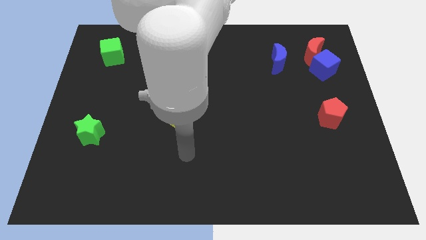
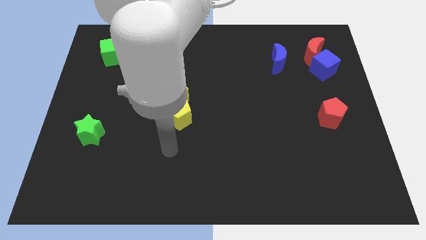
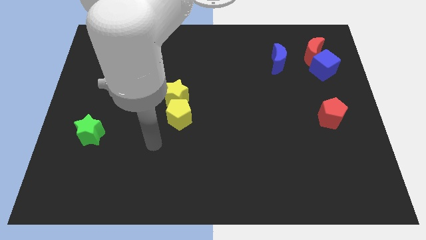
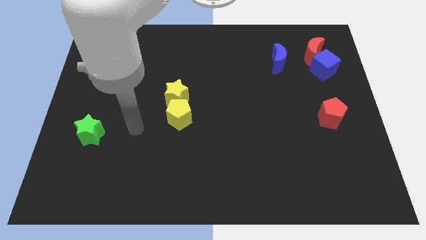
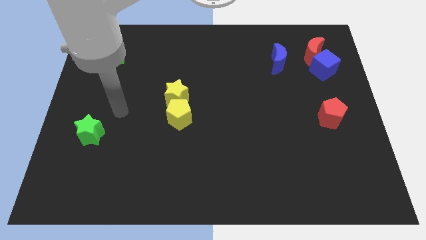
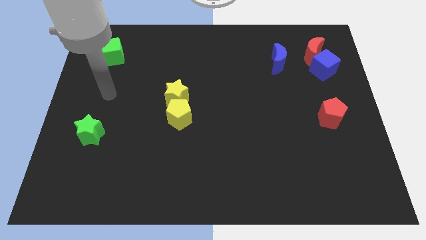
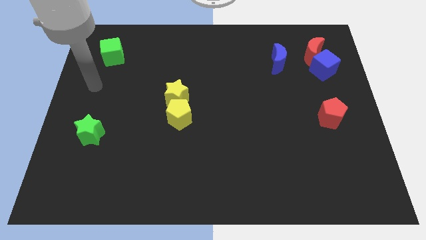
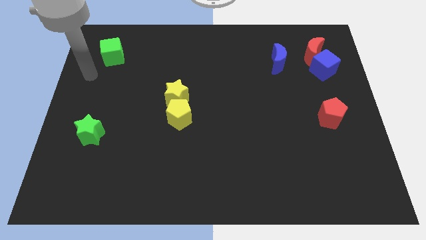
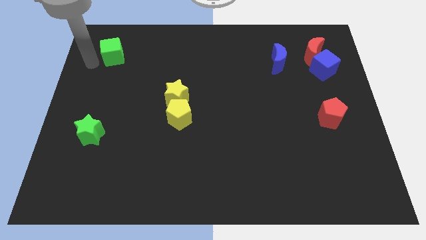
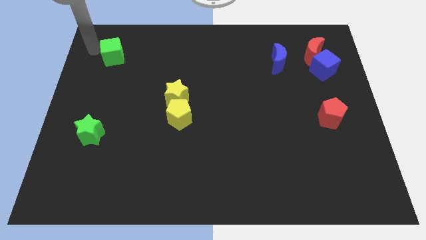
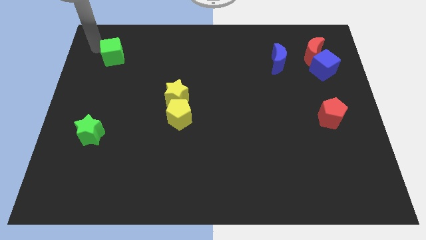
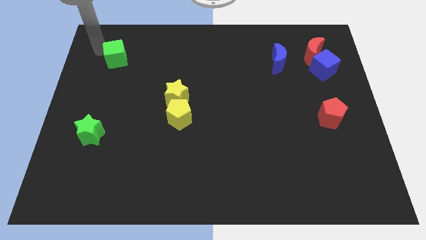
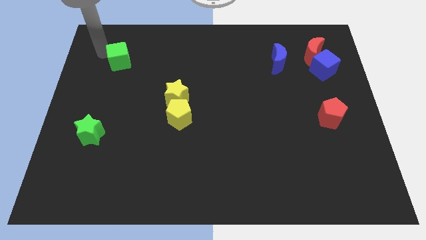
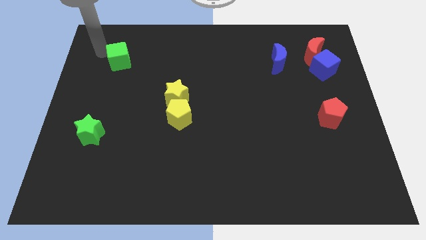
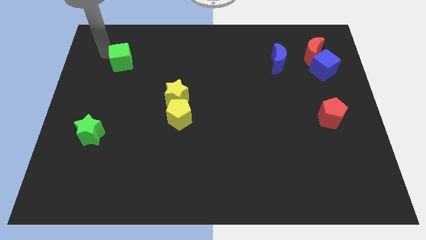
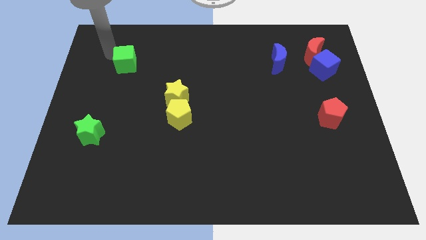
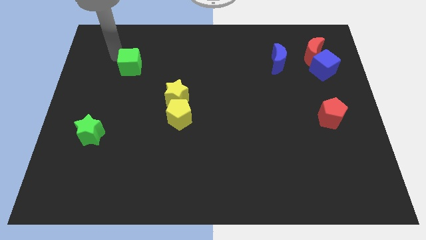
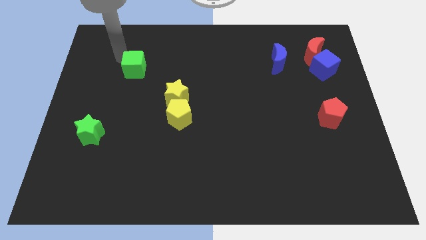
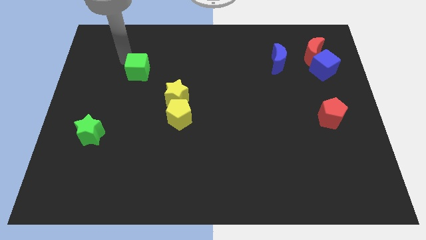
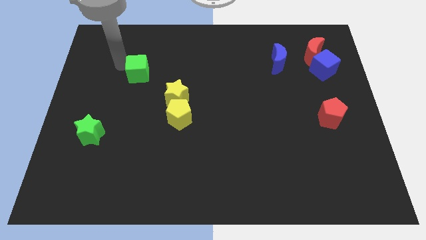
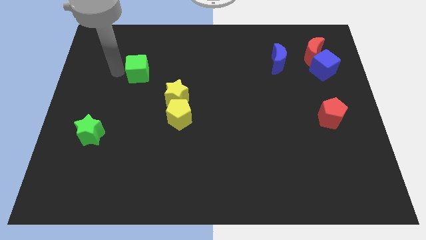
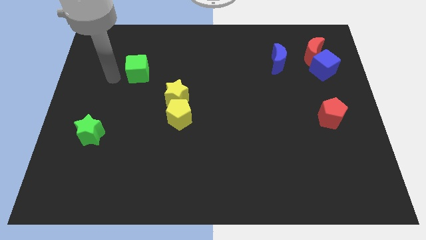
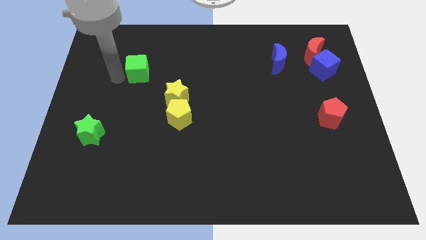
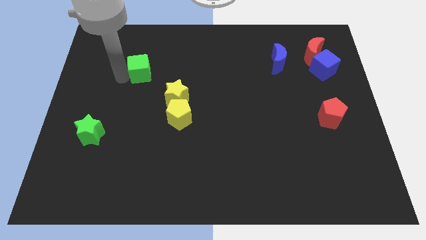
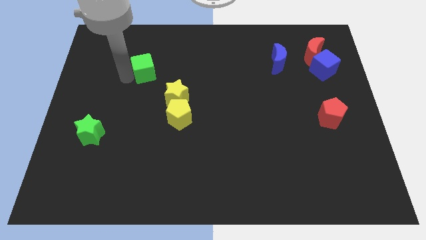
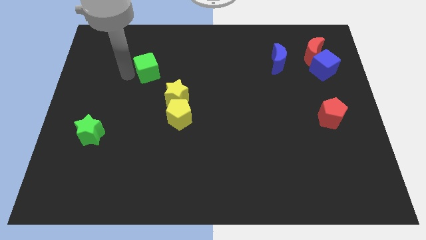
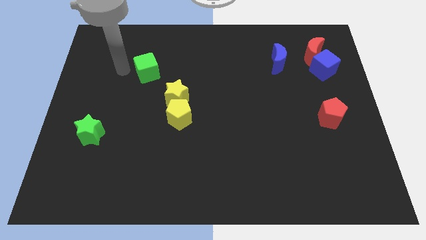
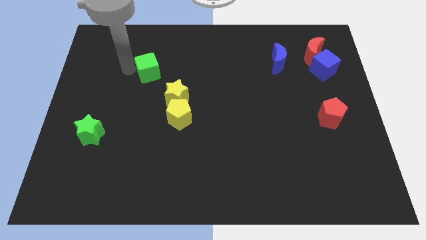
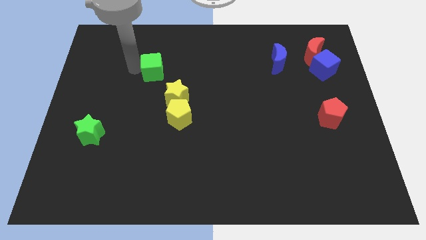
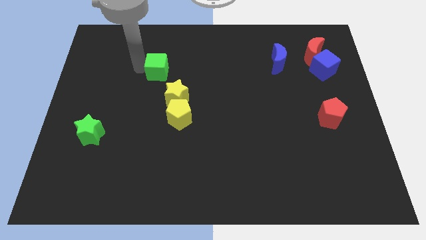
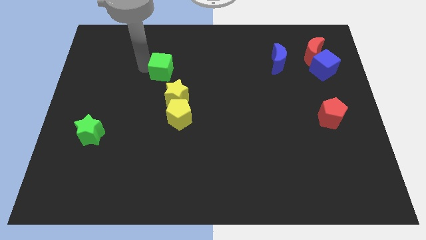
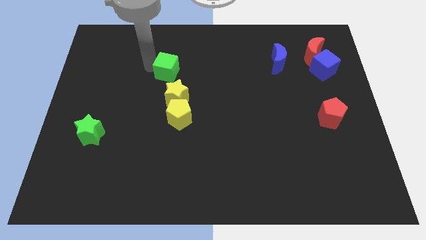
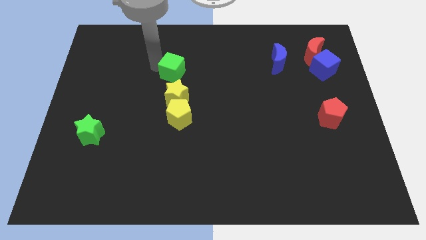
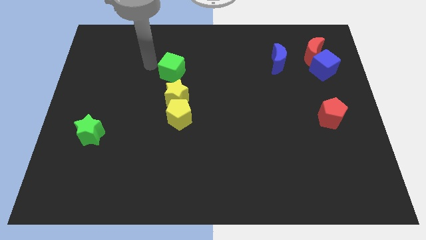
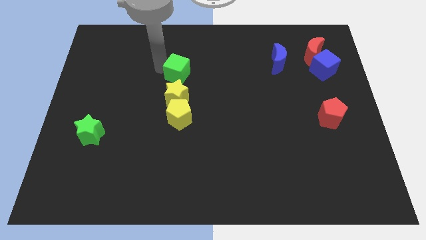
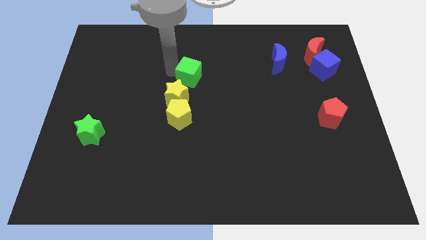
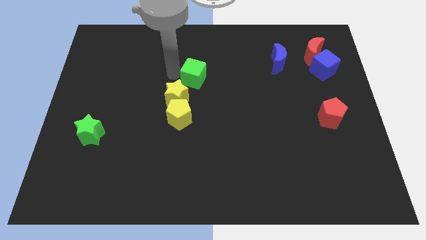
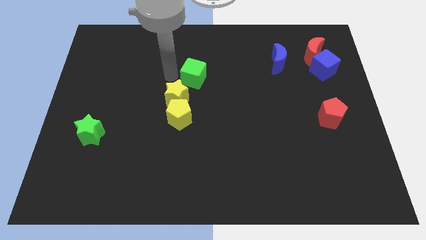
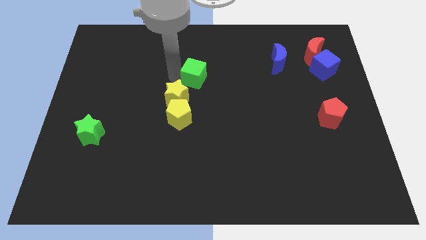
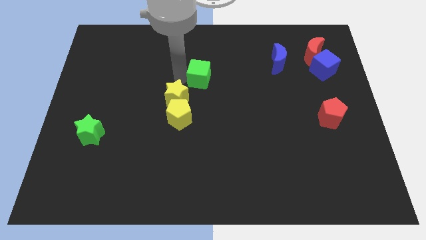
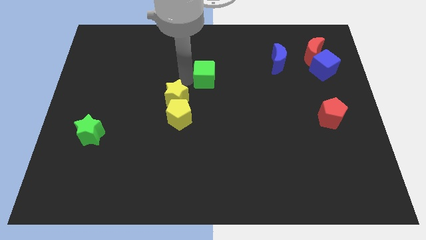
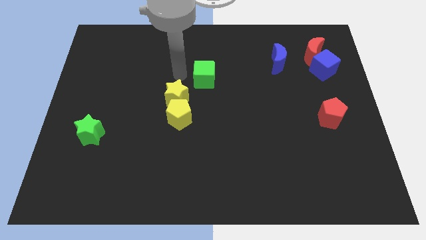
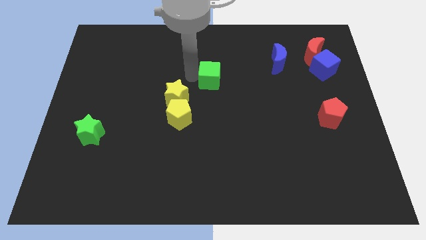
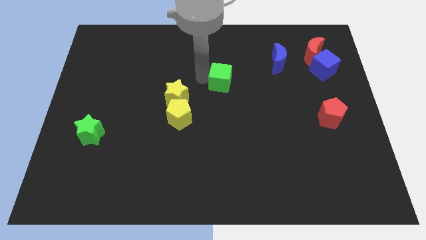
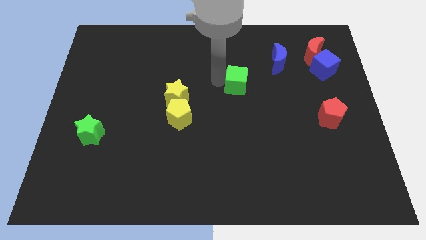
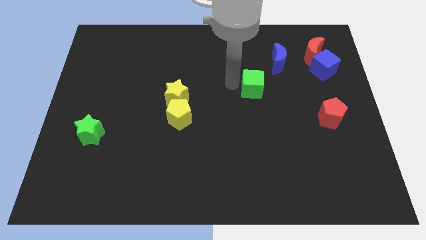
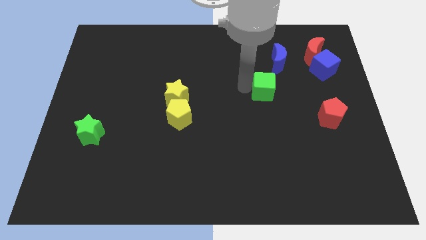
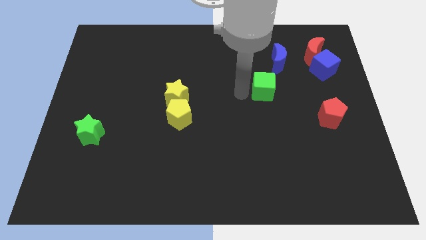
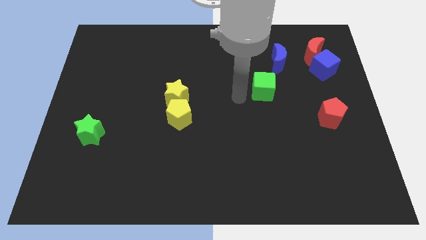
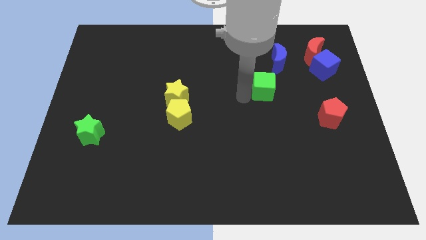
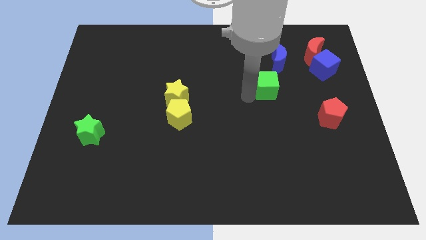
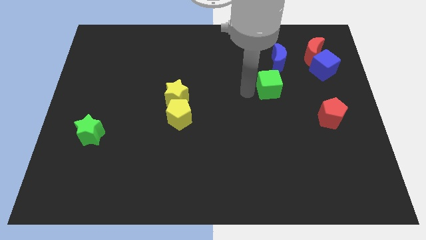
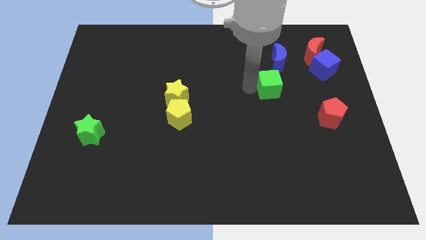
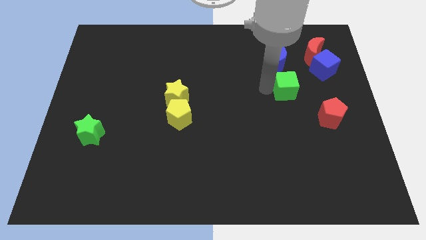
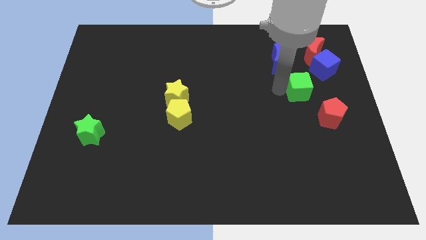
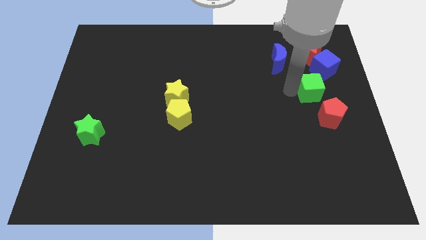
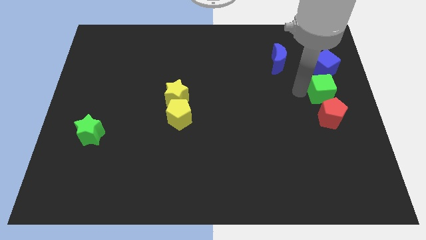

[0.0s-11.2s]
put the green cube to the center right
